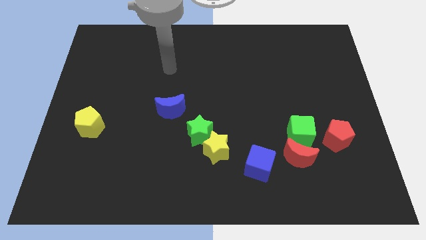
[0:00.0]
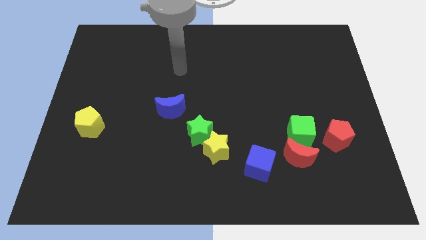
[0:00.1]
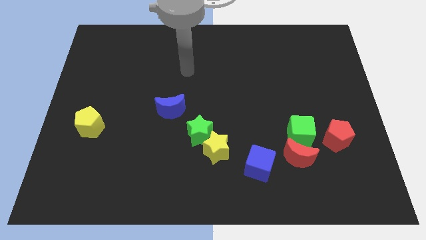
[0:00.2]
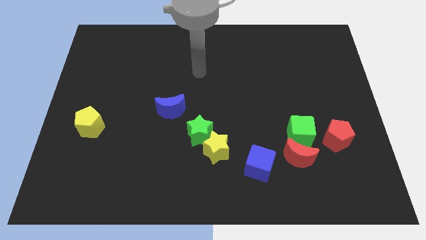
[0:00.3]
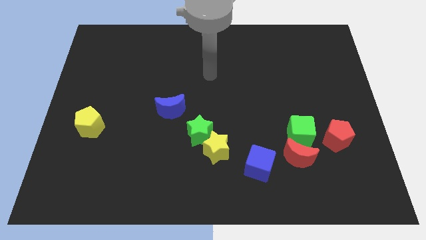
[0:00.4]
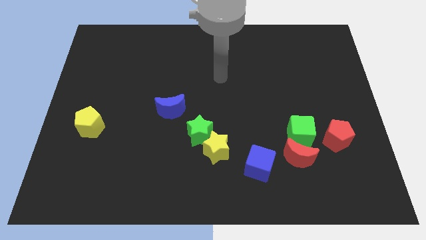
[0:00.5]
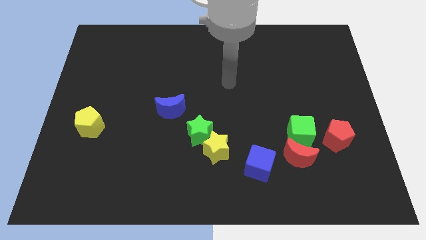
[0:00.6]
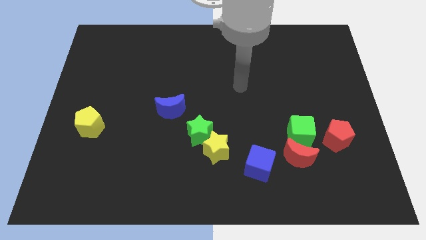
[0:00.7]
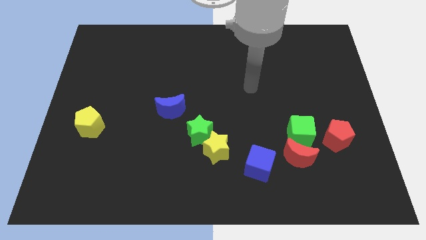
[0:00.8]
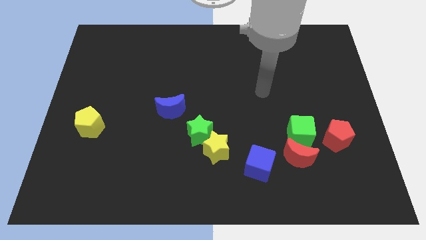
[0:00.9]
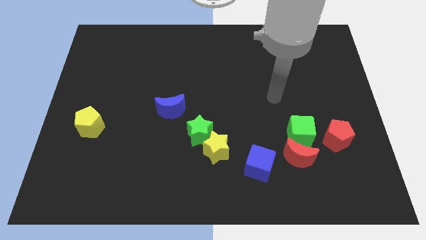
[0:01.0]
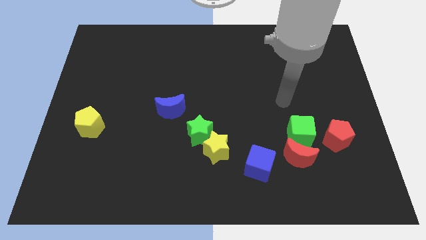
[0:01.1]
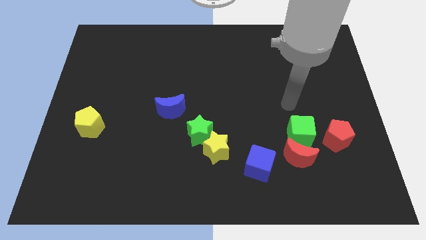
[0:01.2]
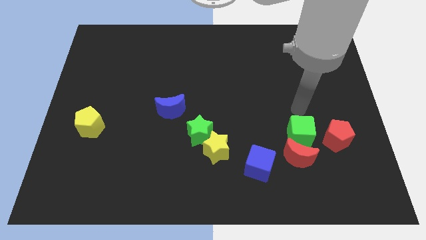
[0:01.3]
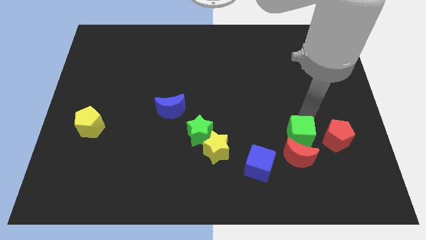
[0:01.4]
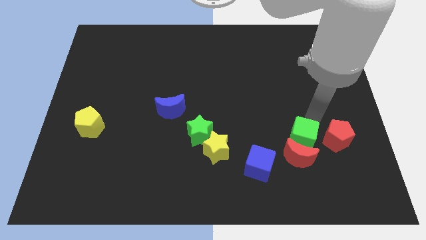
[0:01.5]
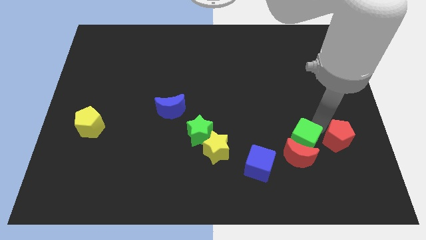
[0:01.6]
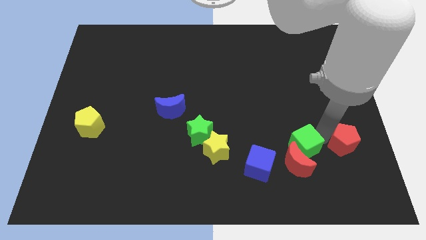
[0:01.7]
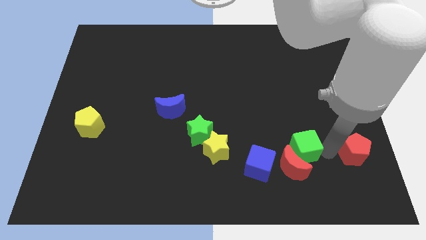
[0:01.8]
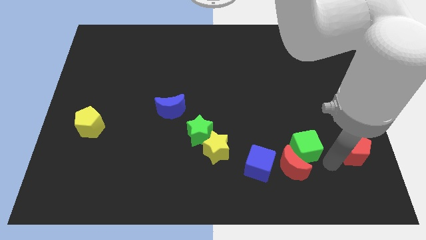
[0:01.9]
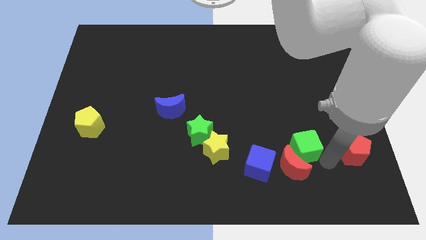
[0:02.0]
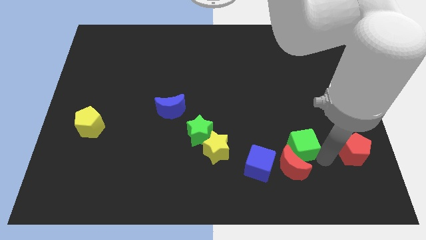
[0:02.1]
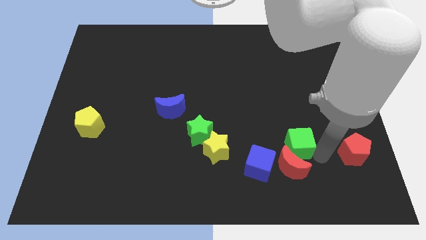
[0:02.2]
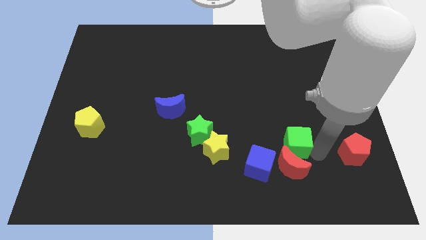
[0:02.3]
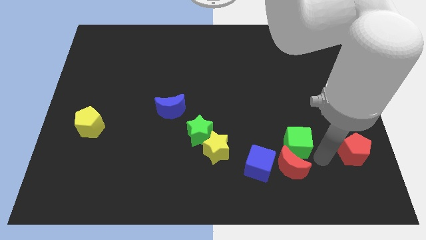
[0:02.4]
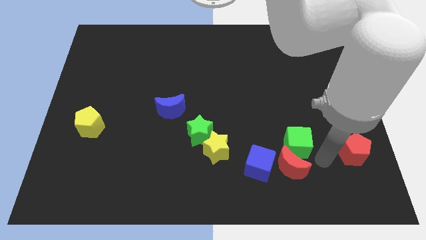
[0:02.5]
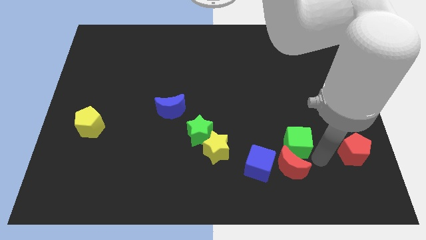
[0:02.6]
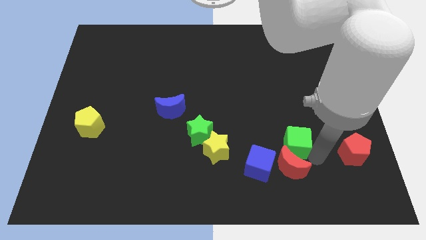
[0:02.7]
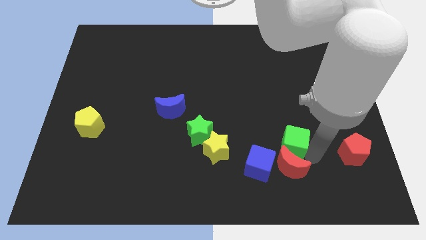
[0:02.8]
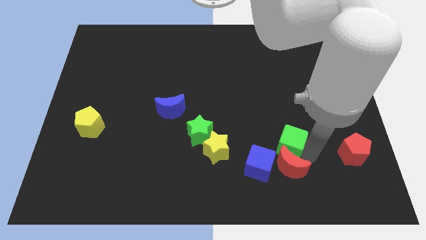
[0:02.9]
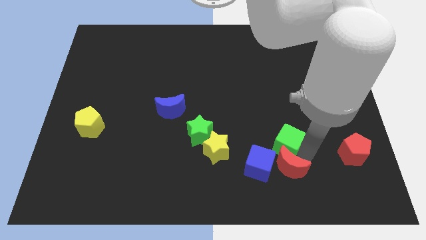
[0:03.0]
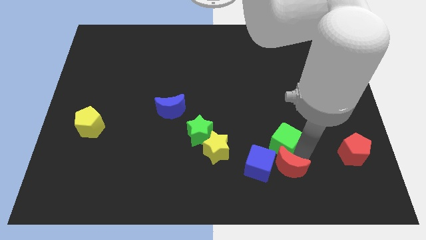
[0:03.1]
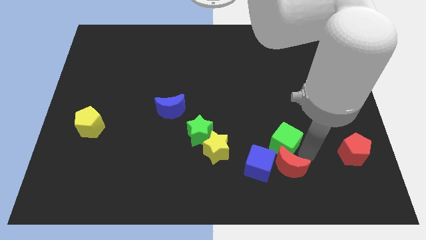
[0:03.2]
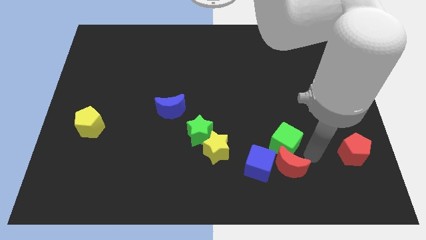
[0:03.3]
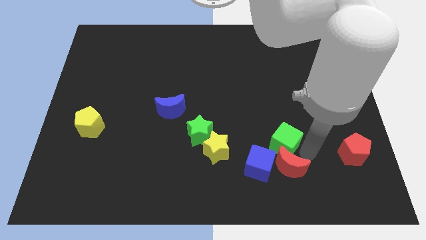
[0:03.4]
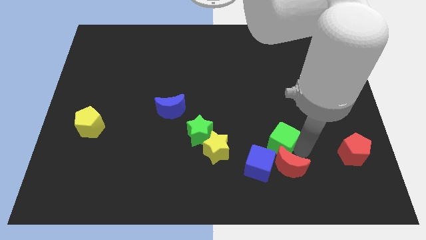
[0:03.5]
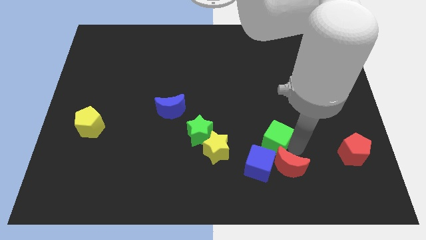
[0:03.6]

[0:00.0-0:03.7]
move the green cube away from the red moon and red pentagon

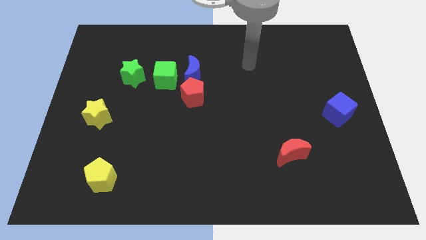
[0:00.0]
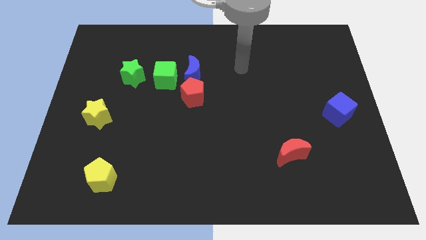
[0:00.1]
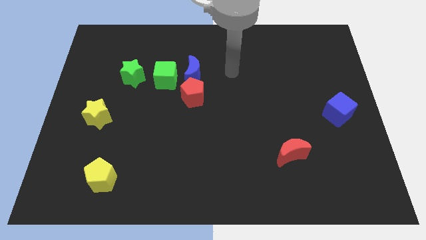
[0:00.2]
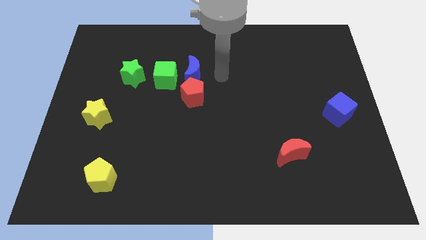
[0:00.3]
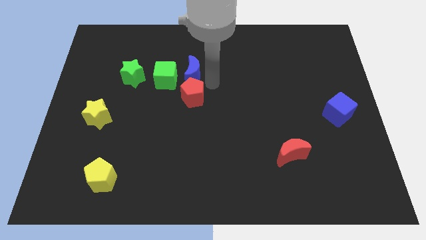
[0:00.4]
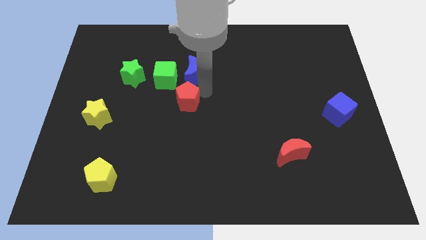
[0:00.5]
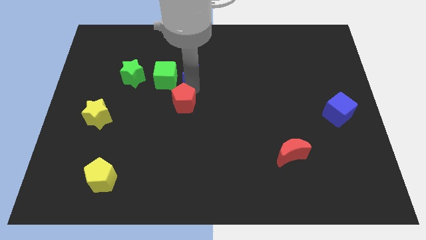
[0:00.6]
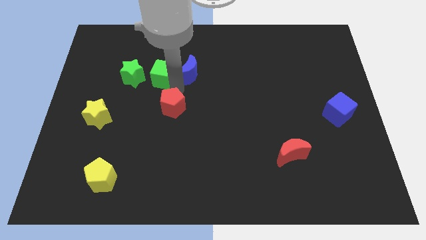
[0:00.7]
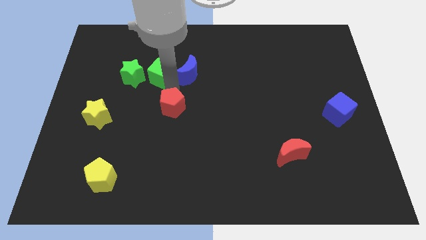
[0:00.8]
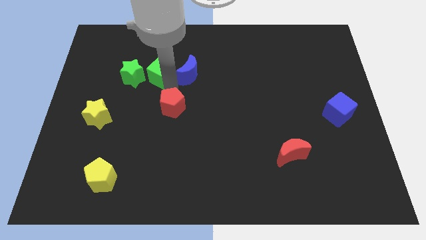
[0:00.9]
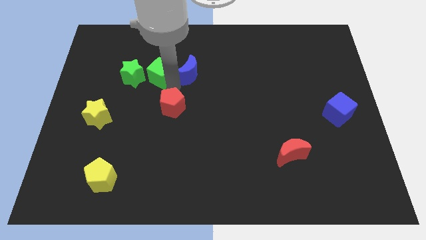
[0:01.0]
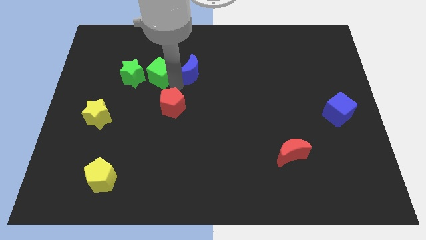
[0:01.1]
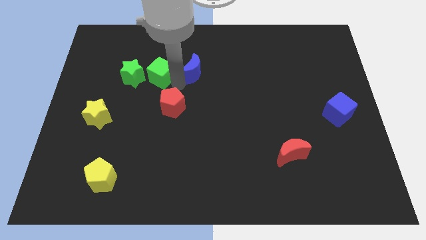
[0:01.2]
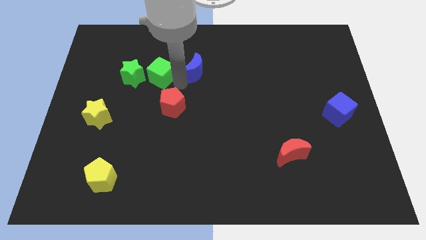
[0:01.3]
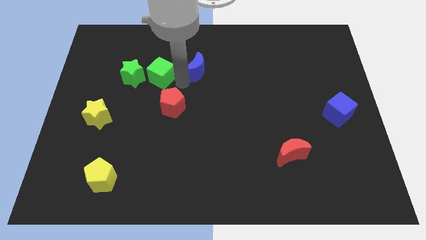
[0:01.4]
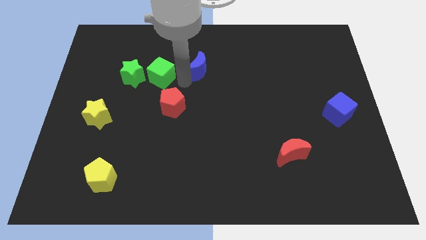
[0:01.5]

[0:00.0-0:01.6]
separate the blue moon from the red pentagon and green cube

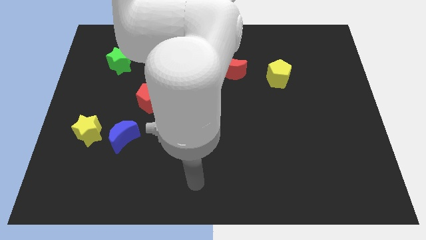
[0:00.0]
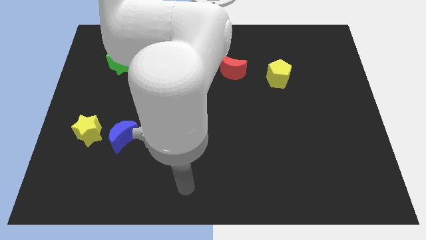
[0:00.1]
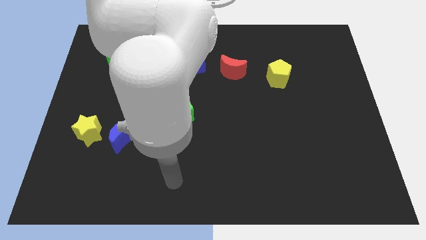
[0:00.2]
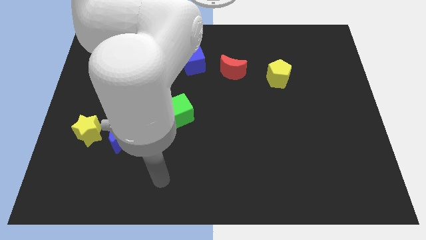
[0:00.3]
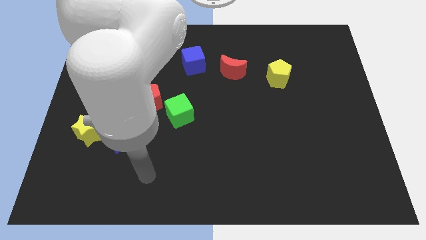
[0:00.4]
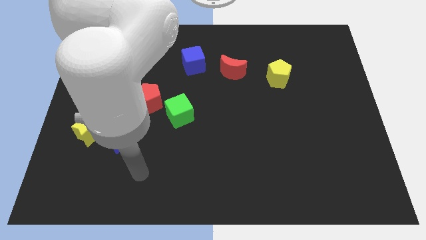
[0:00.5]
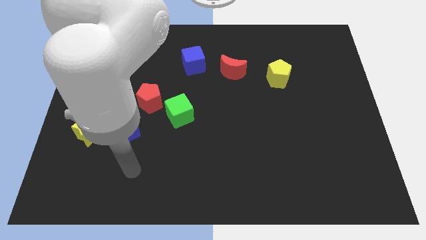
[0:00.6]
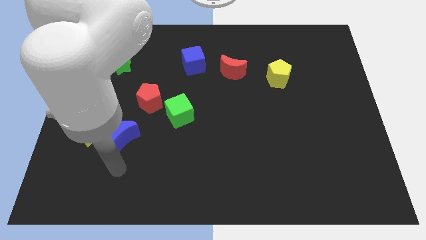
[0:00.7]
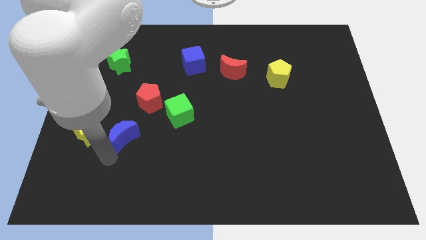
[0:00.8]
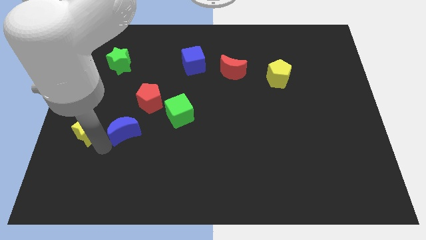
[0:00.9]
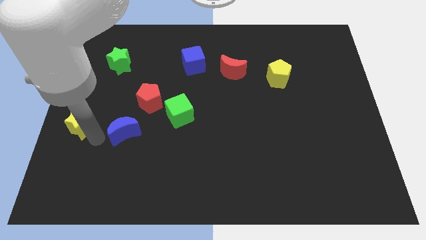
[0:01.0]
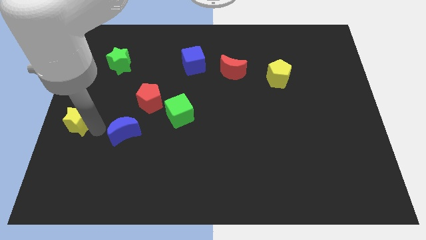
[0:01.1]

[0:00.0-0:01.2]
separate the blue moon from the yellow star

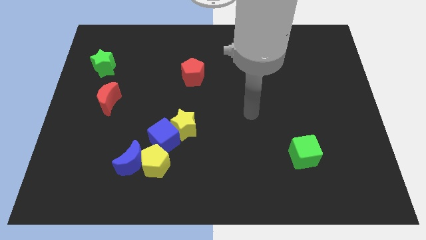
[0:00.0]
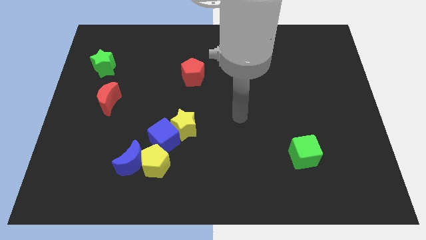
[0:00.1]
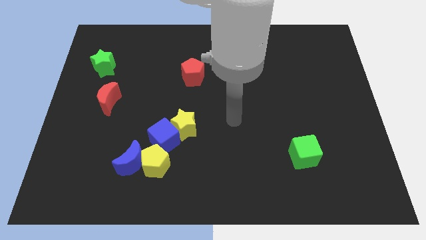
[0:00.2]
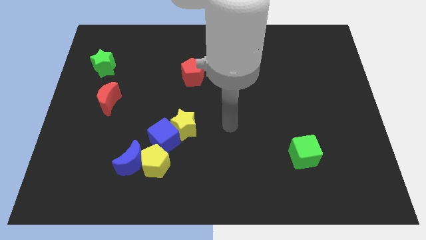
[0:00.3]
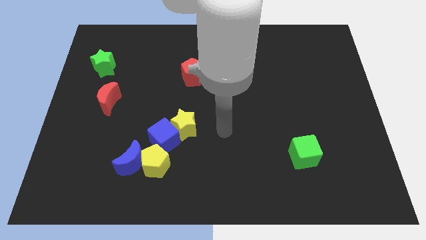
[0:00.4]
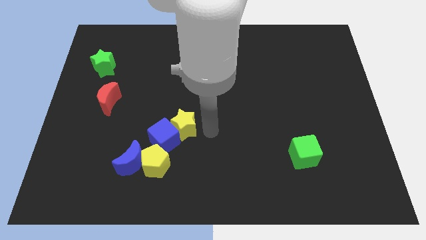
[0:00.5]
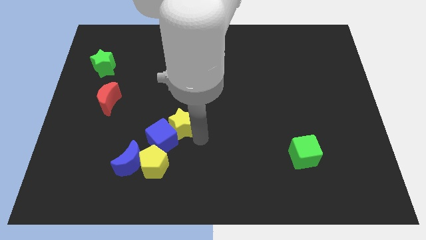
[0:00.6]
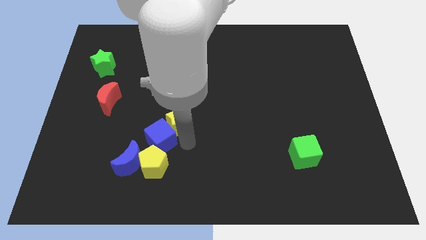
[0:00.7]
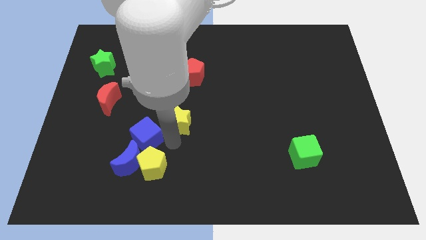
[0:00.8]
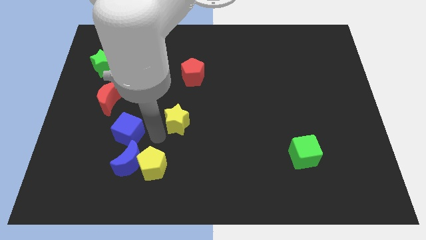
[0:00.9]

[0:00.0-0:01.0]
separate the yellow star from the blue cube

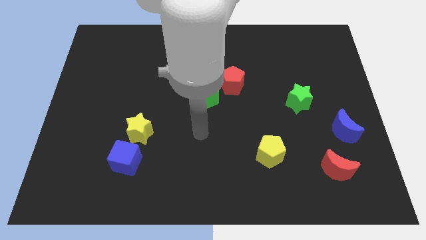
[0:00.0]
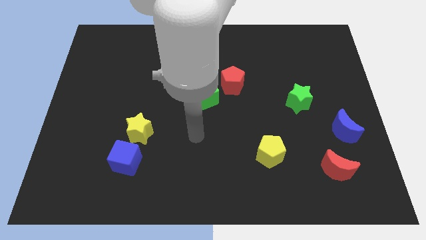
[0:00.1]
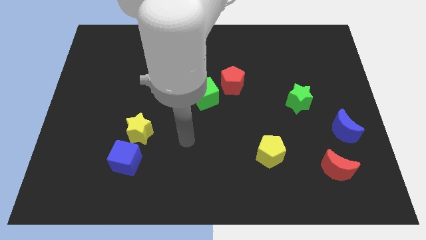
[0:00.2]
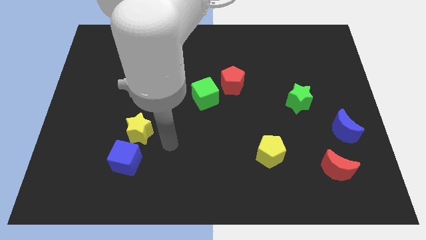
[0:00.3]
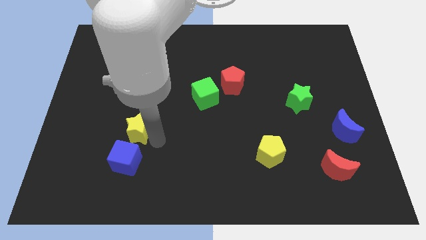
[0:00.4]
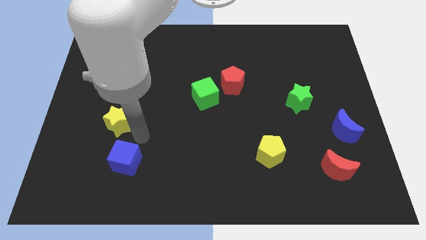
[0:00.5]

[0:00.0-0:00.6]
move the blue cube away from the yellow star

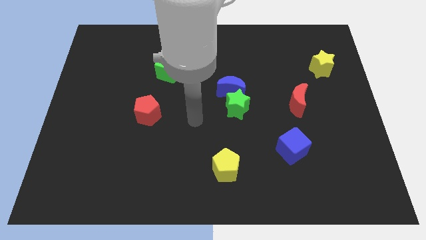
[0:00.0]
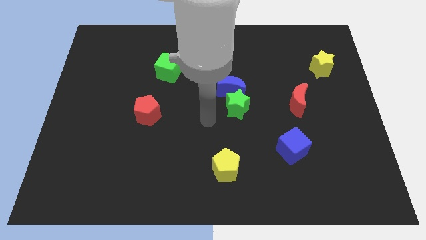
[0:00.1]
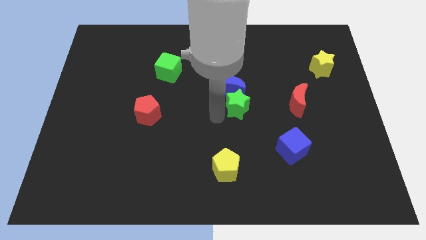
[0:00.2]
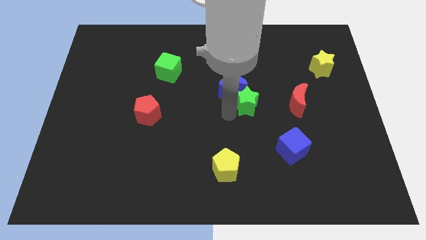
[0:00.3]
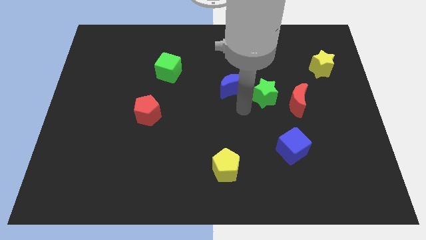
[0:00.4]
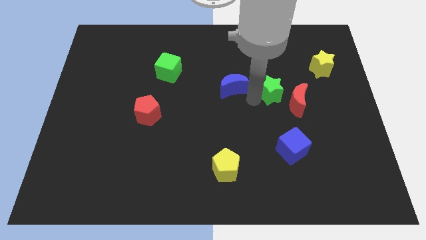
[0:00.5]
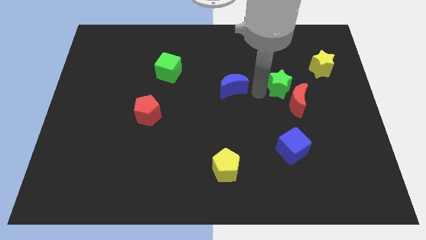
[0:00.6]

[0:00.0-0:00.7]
pull the blue moon apart from the green star

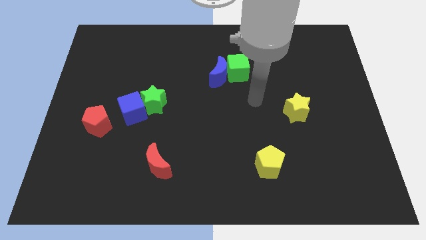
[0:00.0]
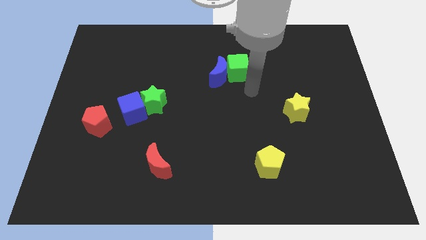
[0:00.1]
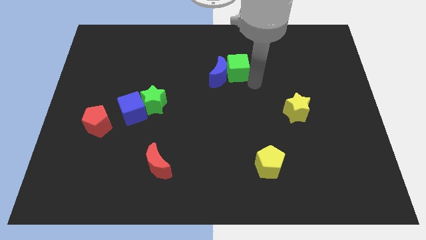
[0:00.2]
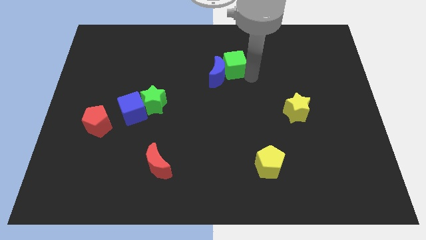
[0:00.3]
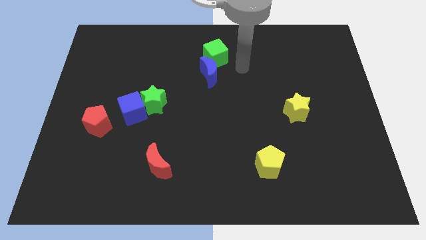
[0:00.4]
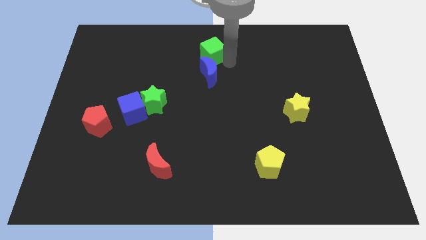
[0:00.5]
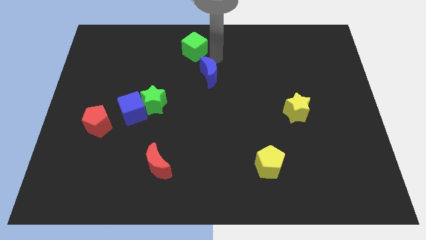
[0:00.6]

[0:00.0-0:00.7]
separate the blue moon from the green cube
